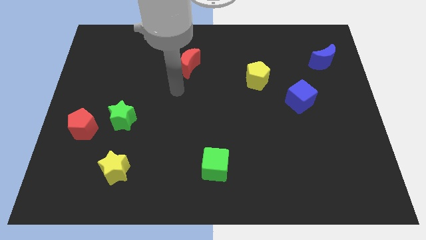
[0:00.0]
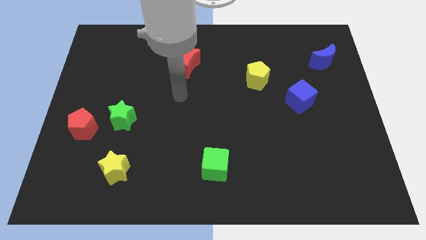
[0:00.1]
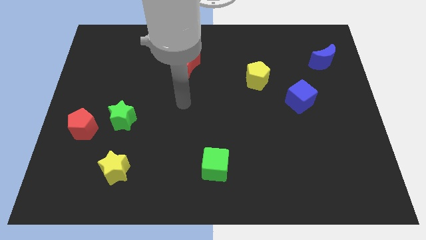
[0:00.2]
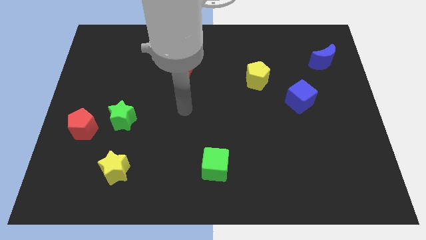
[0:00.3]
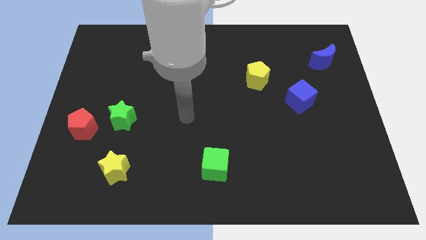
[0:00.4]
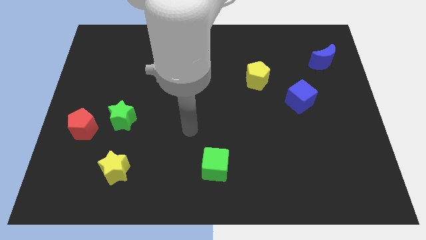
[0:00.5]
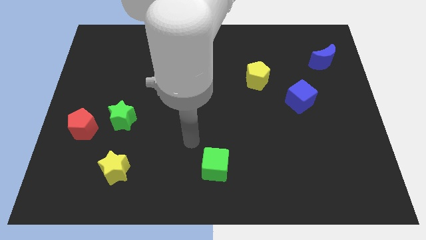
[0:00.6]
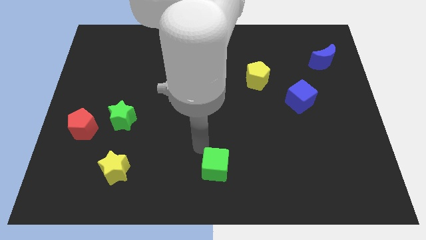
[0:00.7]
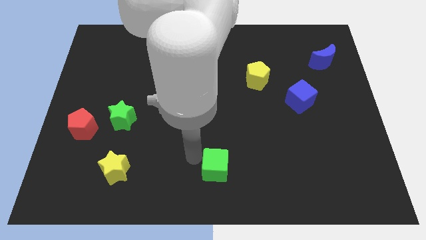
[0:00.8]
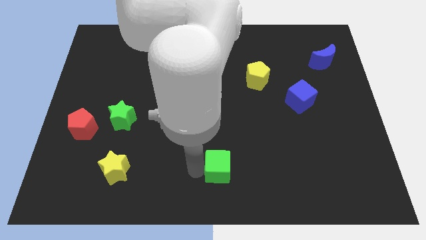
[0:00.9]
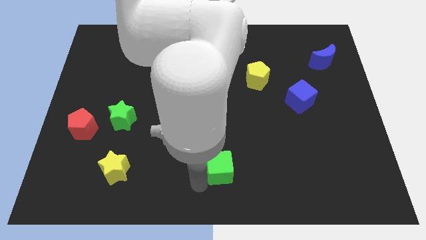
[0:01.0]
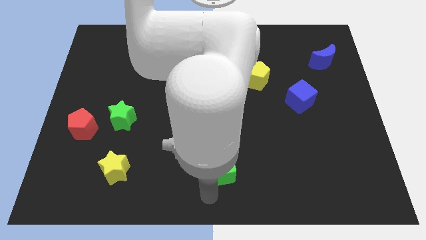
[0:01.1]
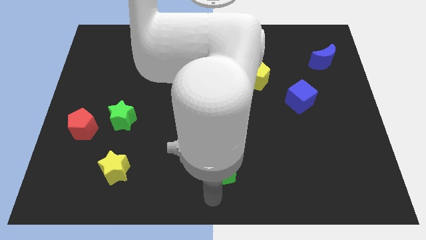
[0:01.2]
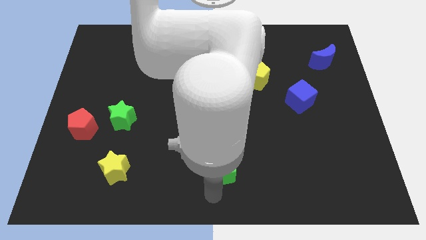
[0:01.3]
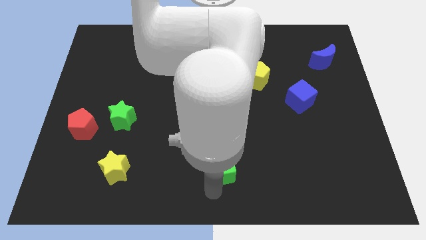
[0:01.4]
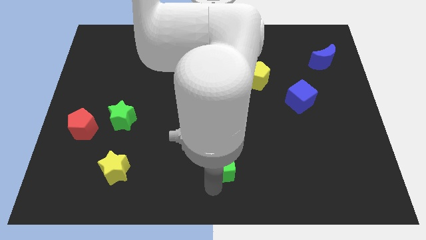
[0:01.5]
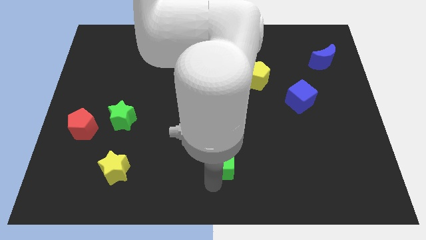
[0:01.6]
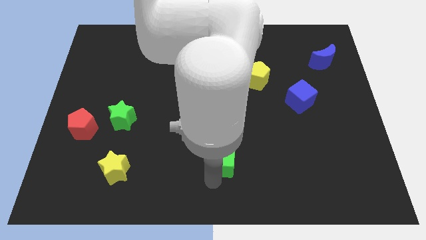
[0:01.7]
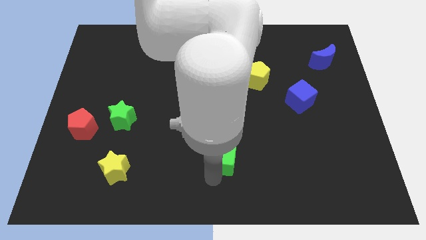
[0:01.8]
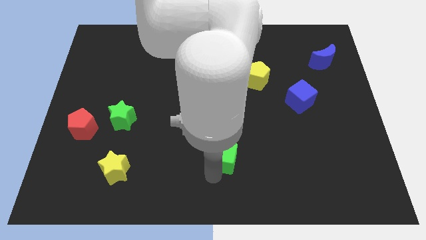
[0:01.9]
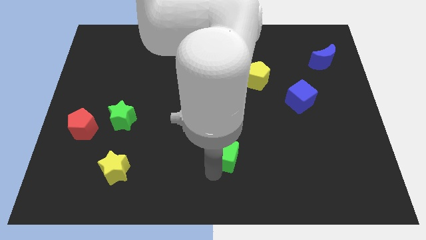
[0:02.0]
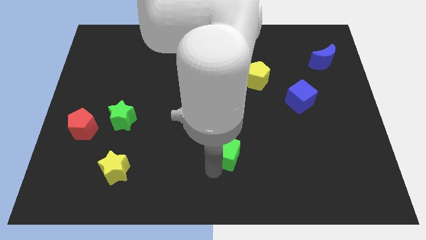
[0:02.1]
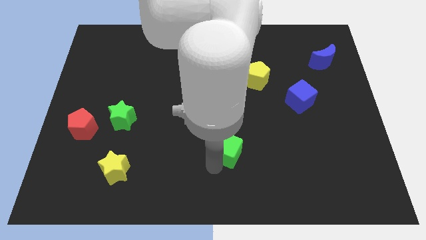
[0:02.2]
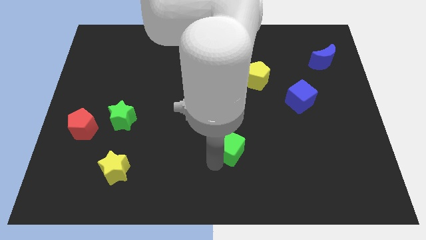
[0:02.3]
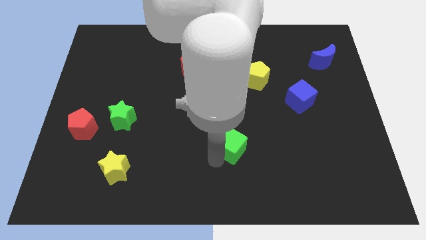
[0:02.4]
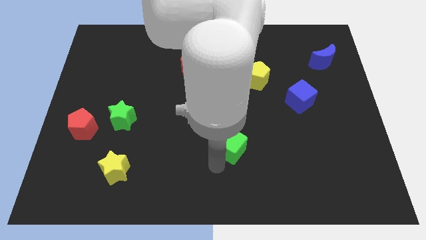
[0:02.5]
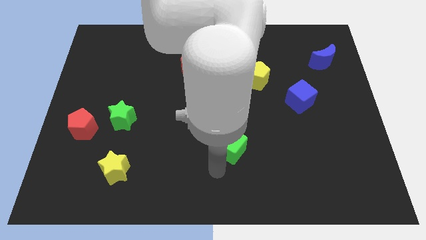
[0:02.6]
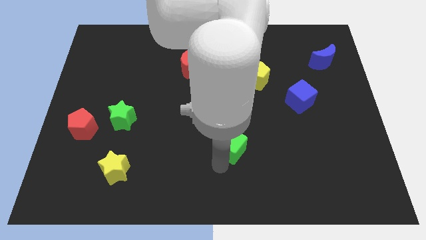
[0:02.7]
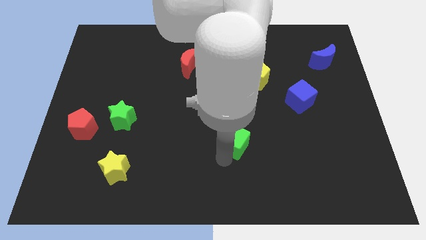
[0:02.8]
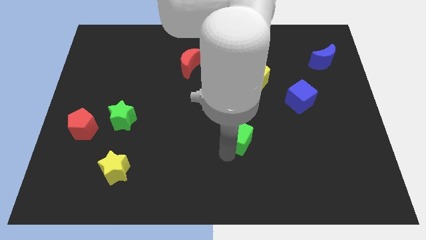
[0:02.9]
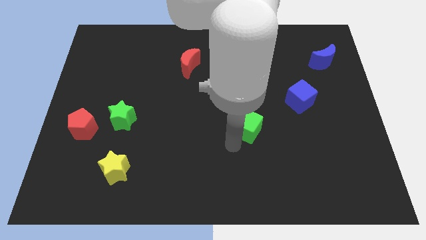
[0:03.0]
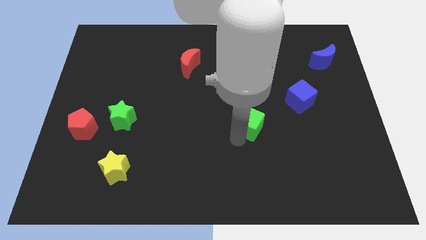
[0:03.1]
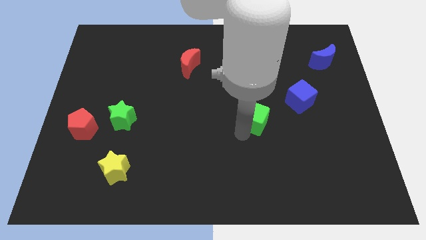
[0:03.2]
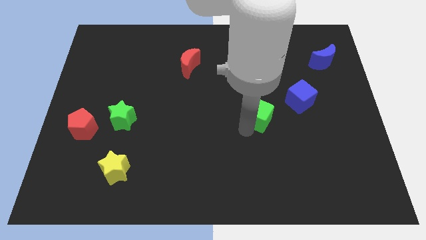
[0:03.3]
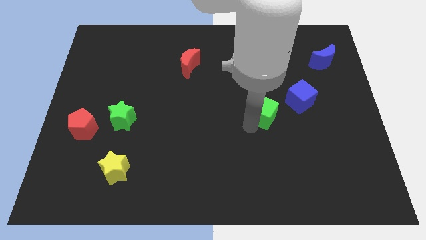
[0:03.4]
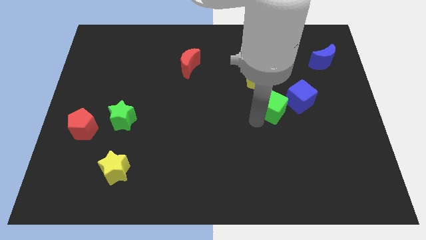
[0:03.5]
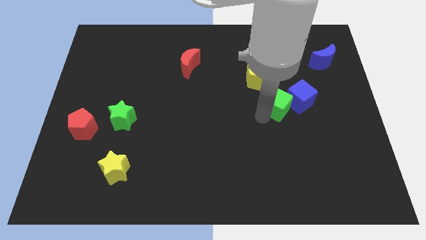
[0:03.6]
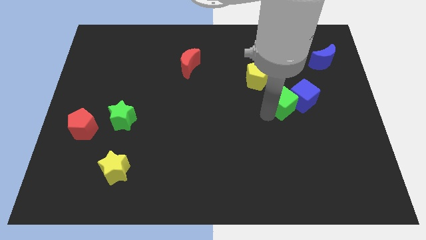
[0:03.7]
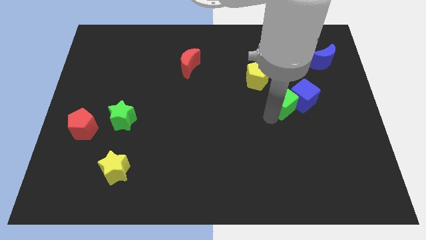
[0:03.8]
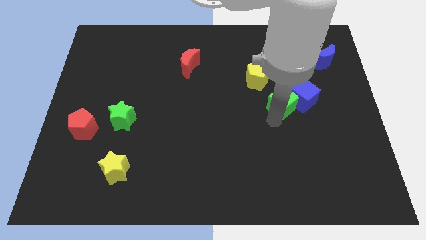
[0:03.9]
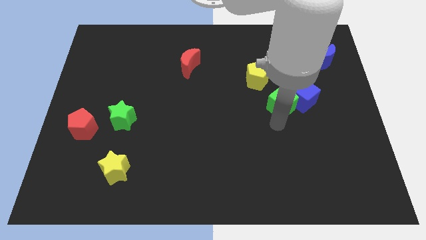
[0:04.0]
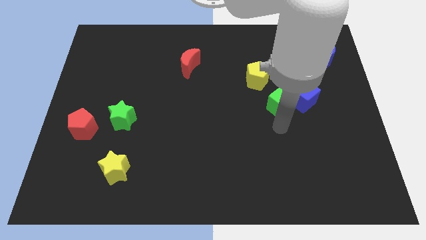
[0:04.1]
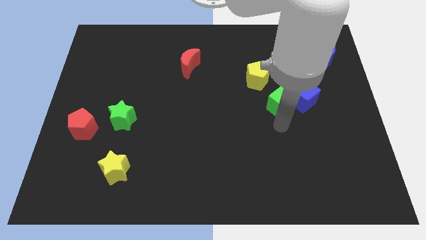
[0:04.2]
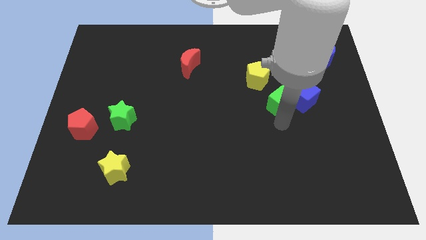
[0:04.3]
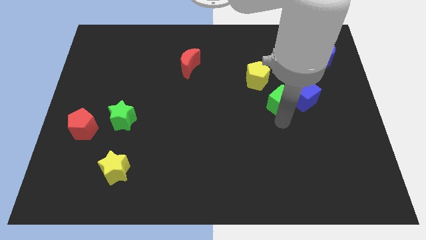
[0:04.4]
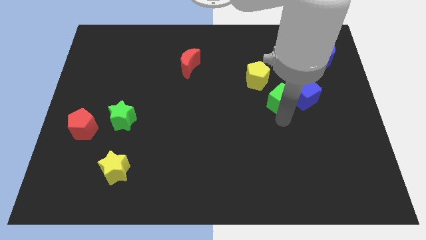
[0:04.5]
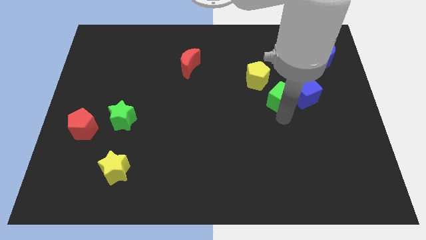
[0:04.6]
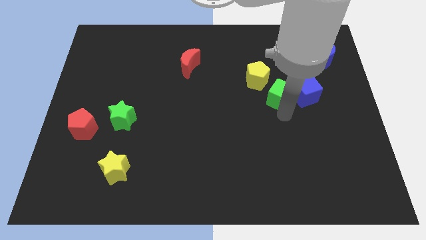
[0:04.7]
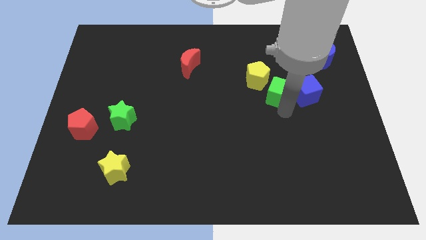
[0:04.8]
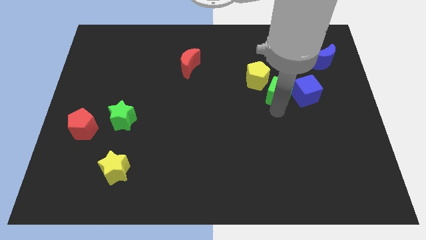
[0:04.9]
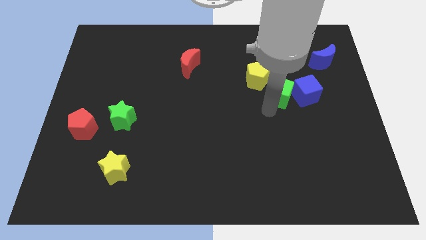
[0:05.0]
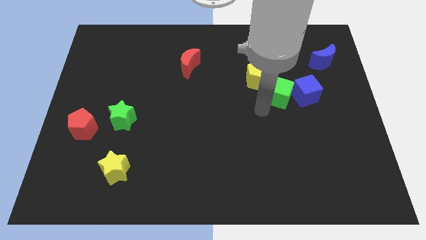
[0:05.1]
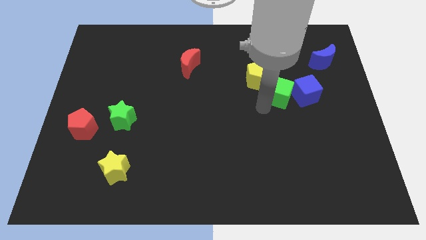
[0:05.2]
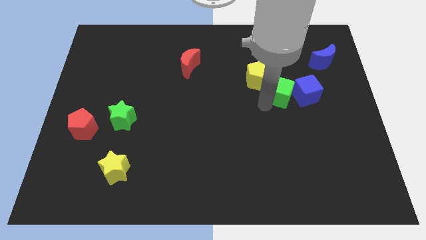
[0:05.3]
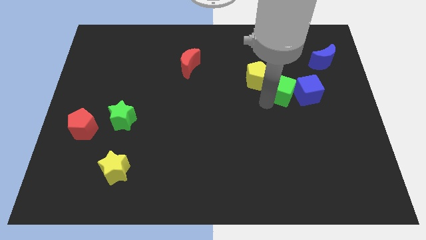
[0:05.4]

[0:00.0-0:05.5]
slide the green cube to the right side of the yellow pentagon

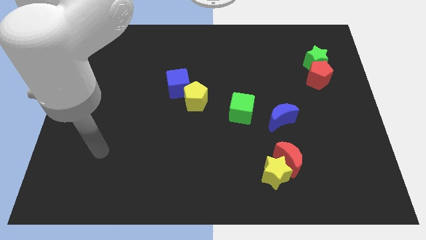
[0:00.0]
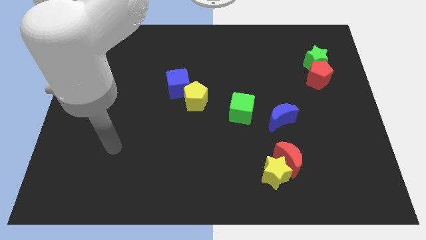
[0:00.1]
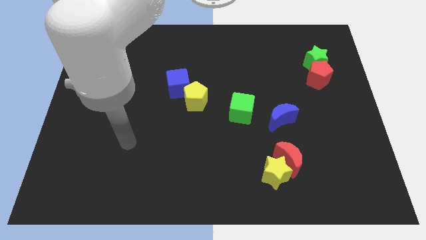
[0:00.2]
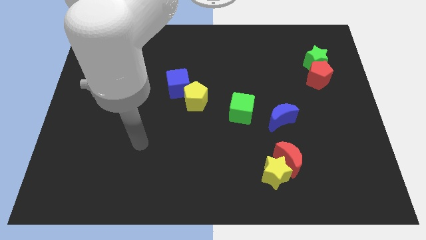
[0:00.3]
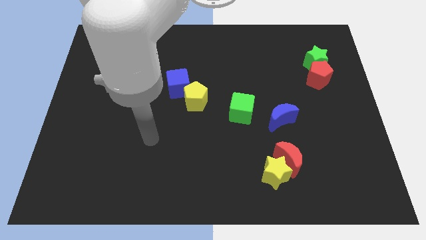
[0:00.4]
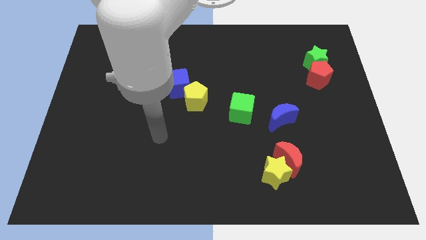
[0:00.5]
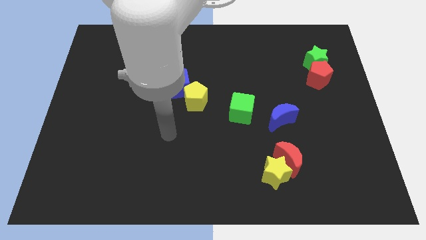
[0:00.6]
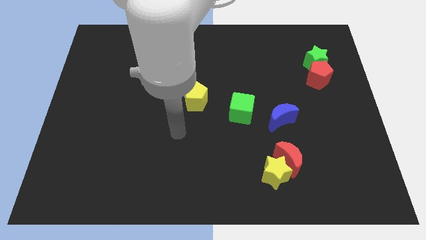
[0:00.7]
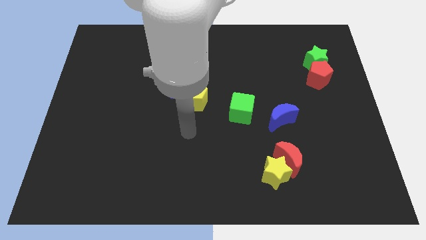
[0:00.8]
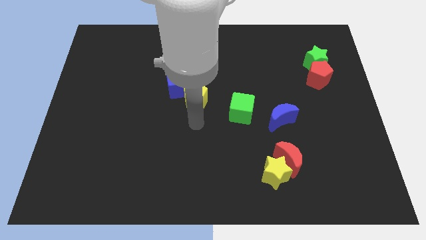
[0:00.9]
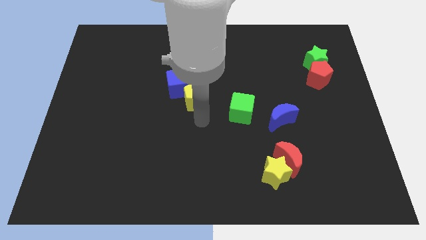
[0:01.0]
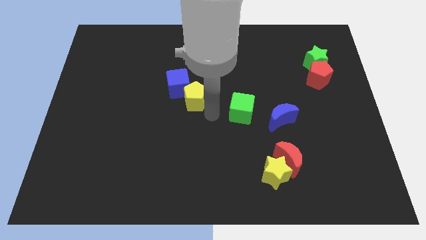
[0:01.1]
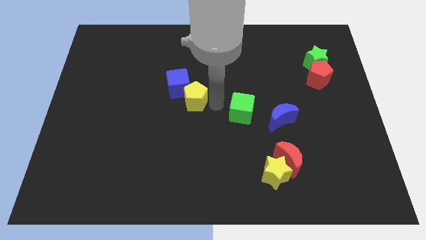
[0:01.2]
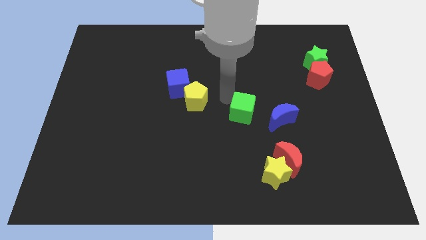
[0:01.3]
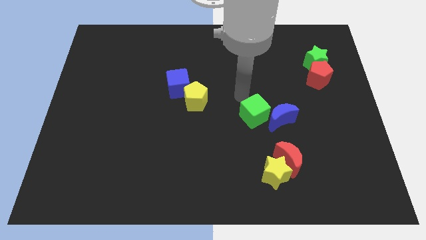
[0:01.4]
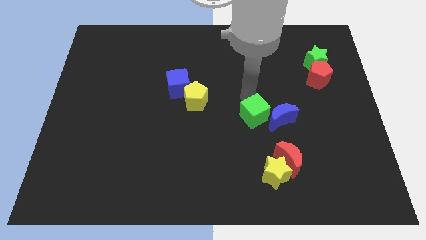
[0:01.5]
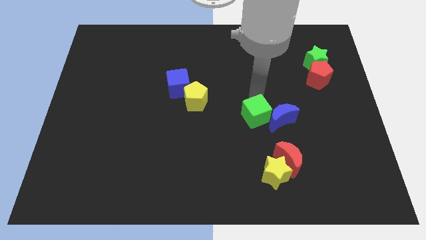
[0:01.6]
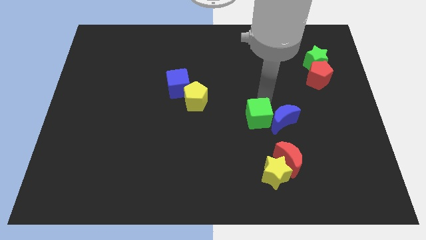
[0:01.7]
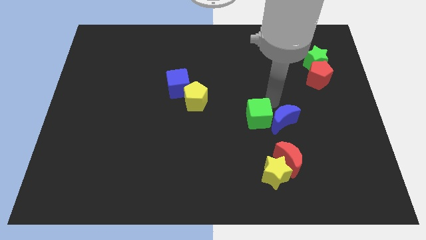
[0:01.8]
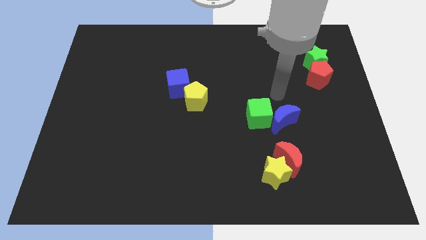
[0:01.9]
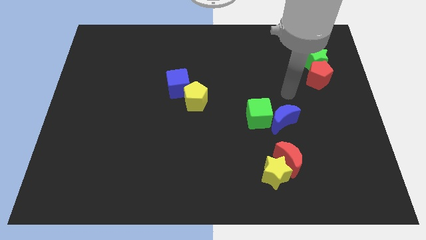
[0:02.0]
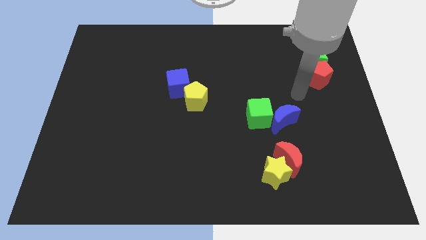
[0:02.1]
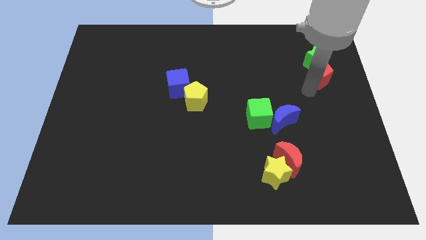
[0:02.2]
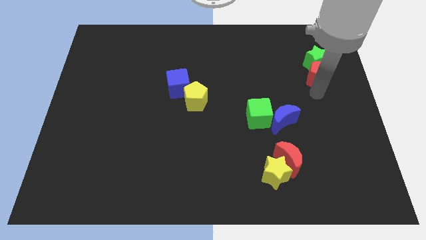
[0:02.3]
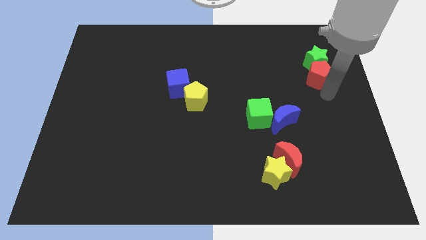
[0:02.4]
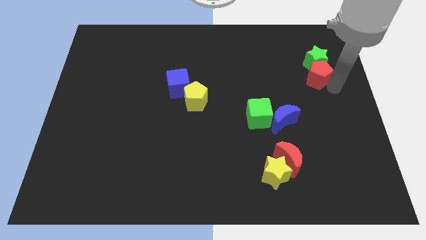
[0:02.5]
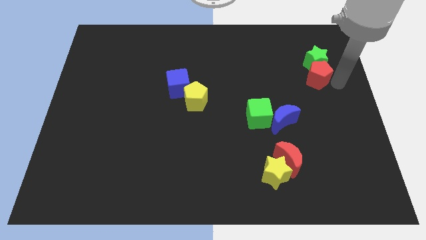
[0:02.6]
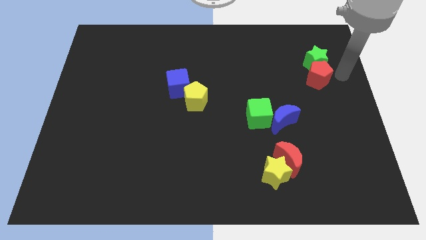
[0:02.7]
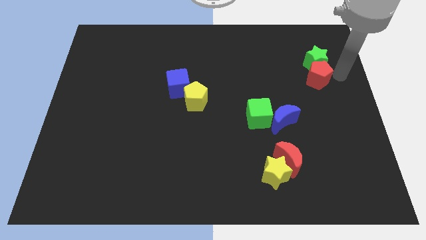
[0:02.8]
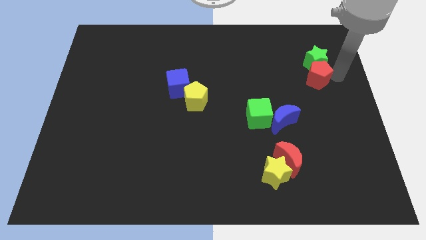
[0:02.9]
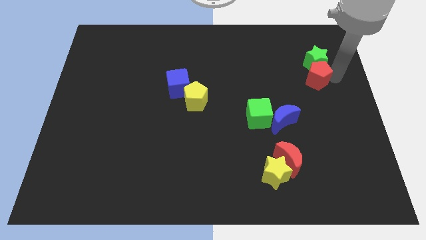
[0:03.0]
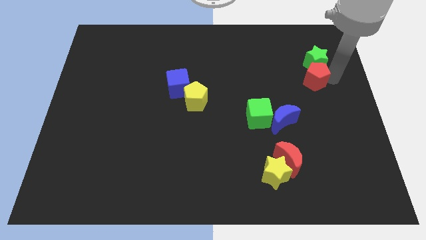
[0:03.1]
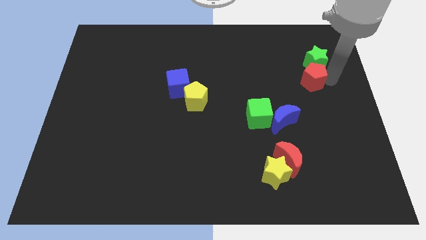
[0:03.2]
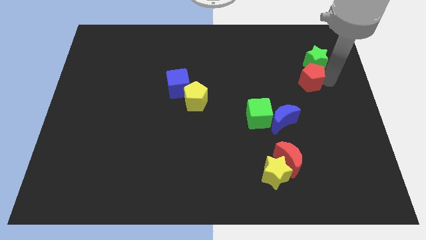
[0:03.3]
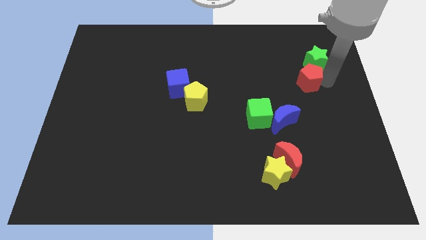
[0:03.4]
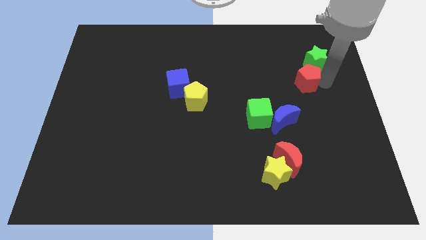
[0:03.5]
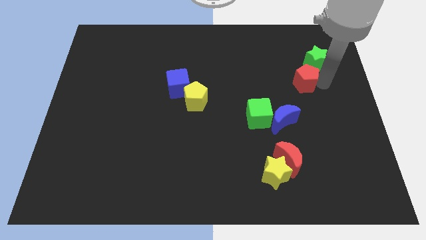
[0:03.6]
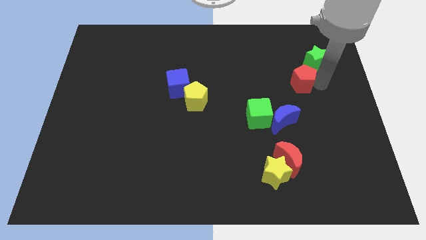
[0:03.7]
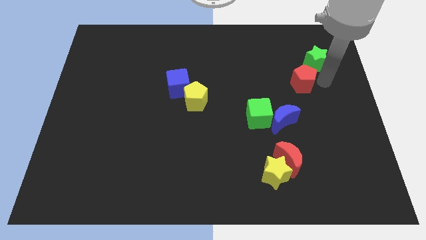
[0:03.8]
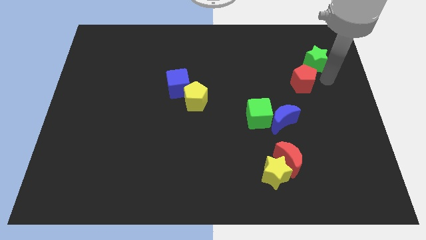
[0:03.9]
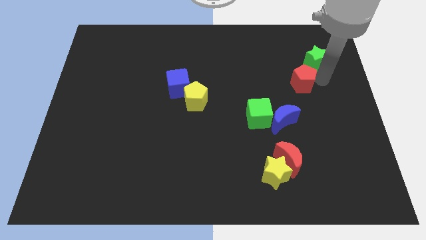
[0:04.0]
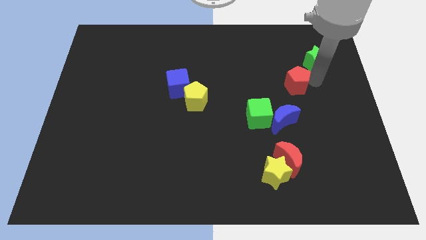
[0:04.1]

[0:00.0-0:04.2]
move the red pentagon to the top side of the blue moon
